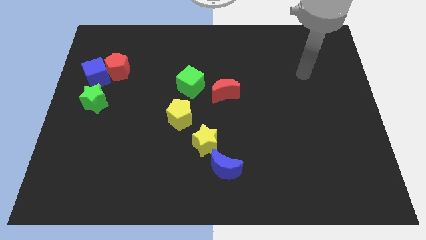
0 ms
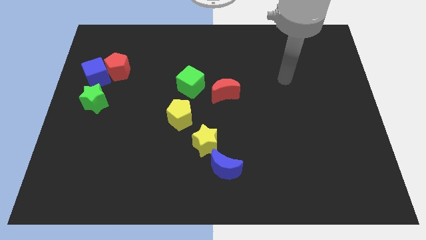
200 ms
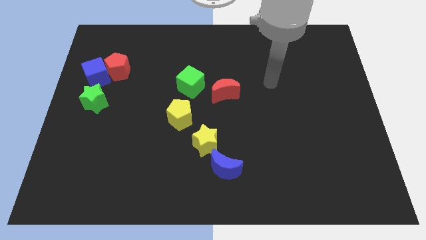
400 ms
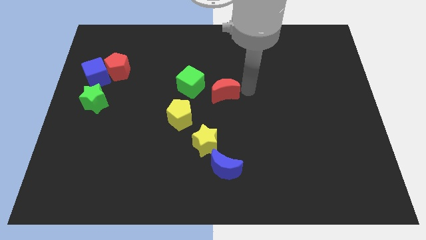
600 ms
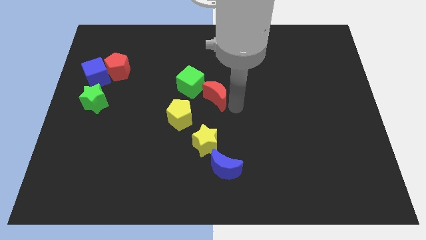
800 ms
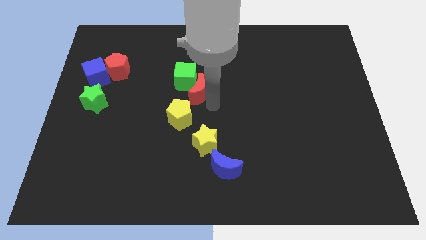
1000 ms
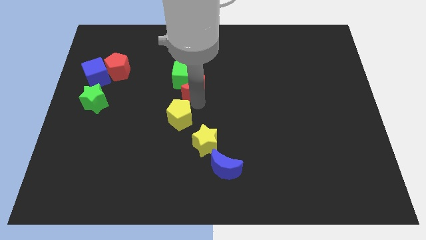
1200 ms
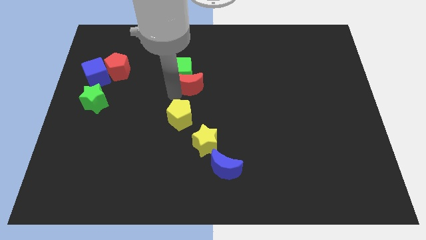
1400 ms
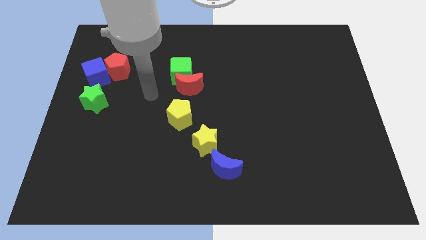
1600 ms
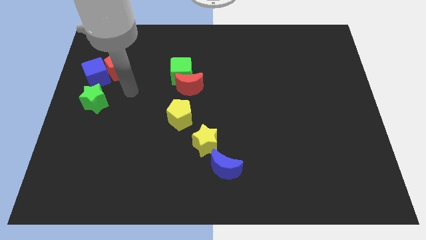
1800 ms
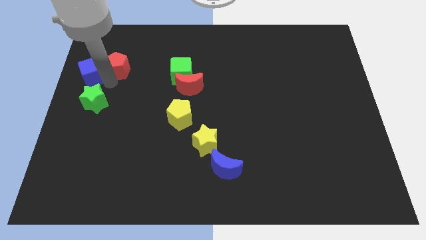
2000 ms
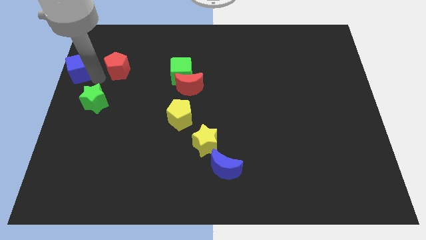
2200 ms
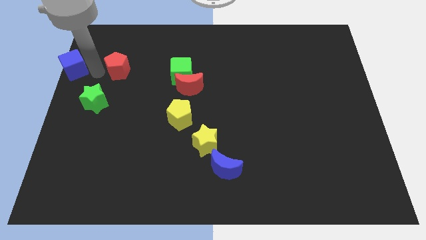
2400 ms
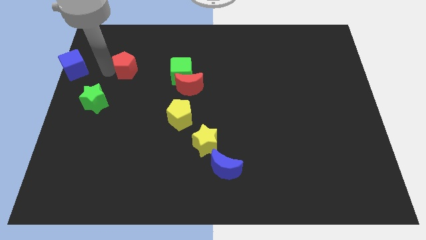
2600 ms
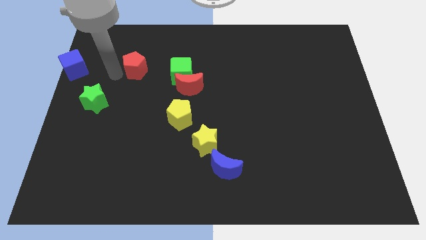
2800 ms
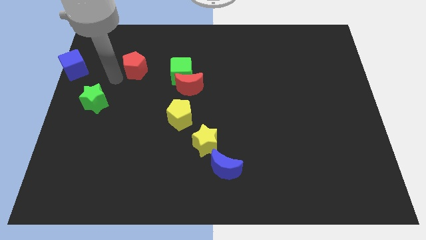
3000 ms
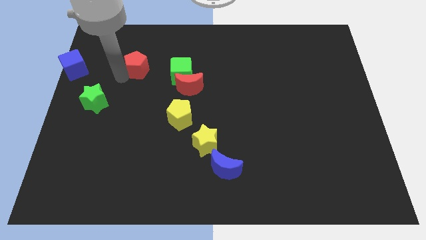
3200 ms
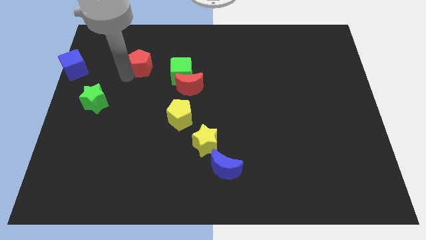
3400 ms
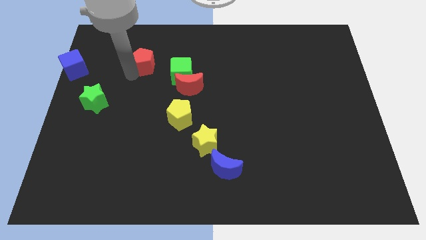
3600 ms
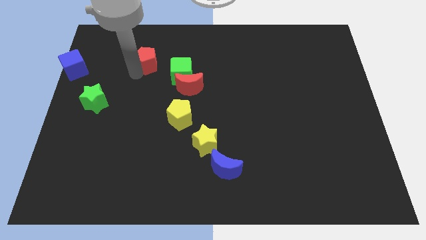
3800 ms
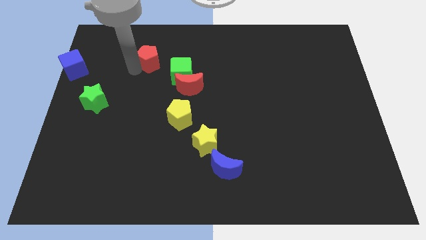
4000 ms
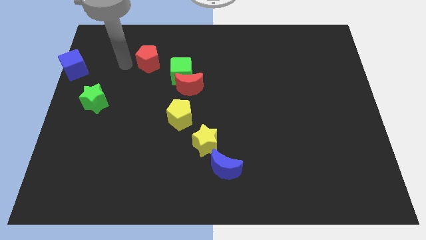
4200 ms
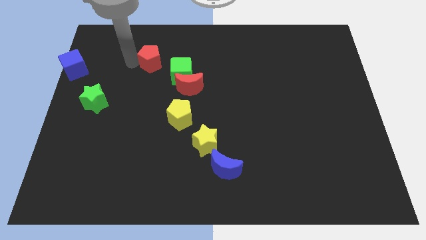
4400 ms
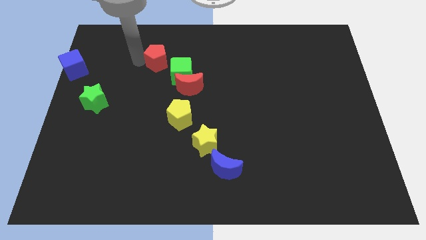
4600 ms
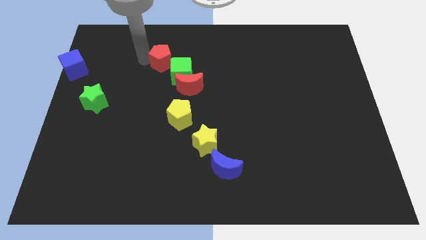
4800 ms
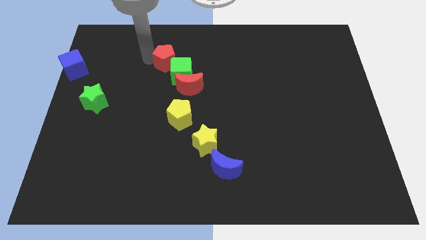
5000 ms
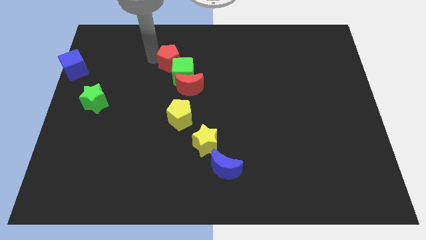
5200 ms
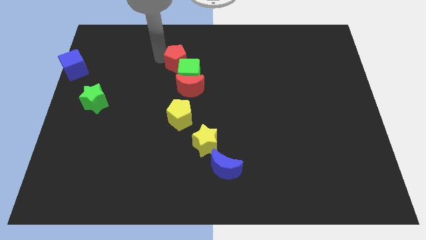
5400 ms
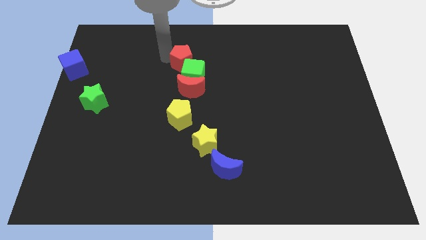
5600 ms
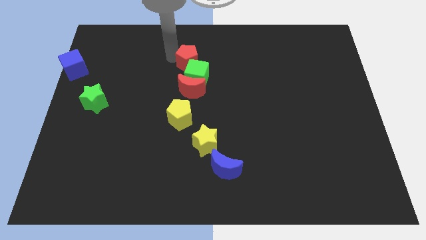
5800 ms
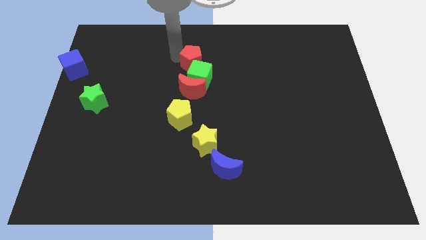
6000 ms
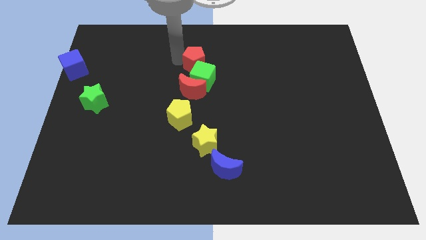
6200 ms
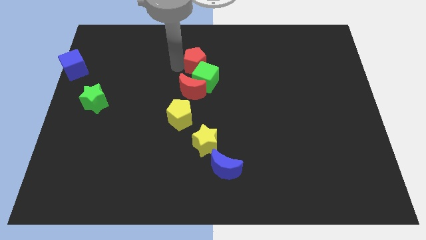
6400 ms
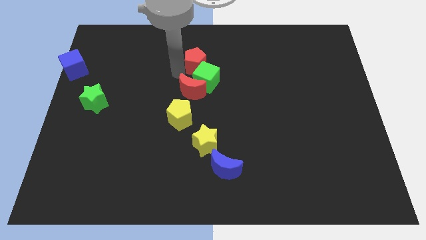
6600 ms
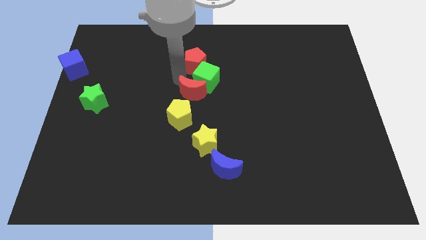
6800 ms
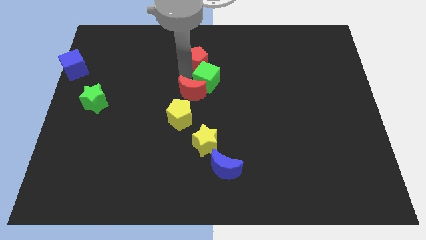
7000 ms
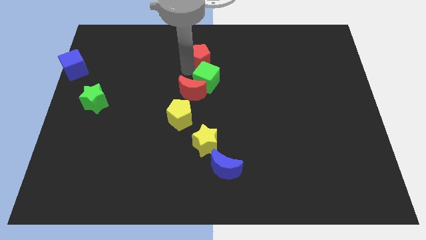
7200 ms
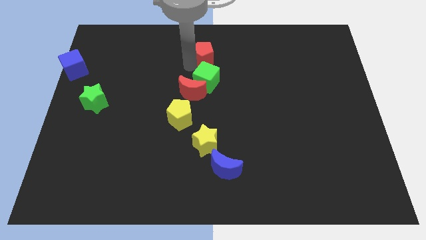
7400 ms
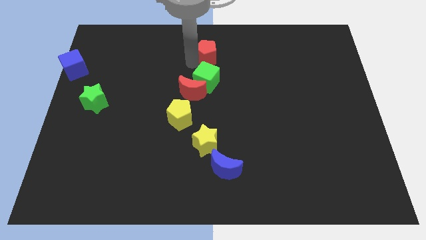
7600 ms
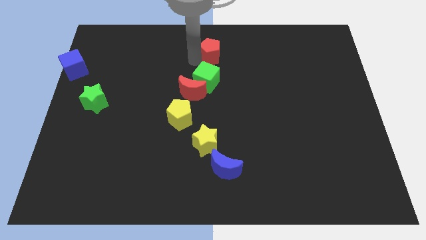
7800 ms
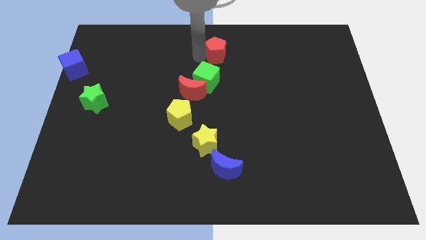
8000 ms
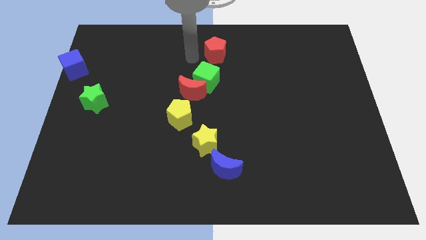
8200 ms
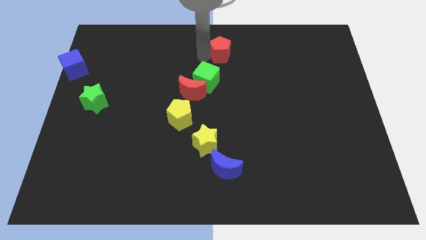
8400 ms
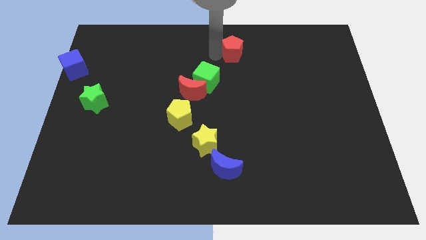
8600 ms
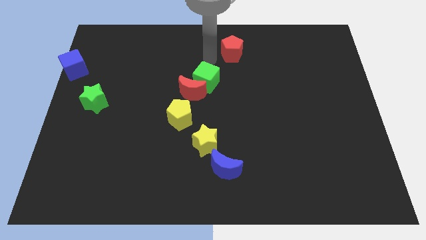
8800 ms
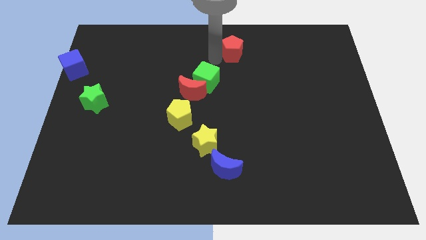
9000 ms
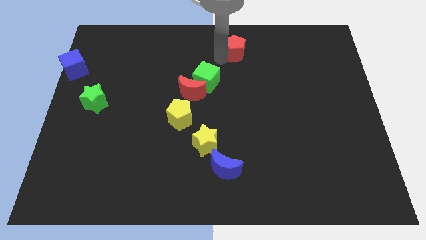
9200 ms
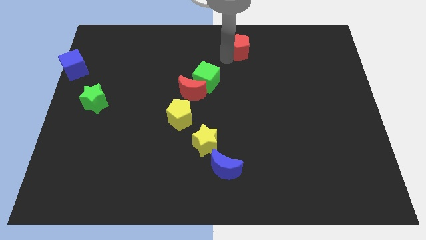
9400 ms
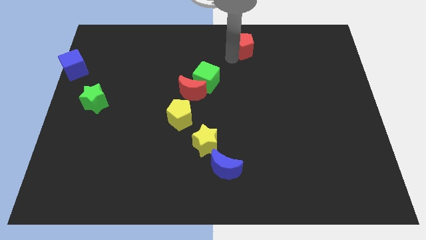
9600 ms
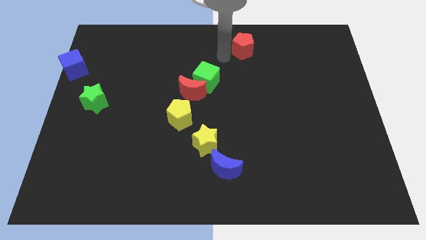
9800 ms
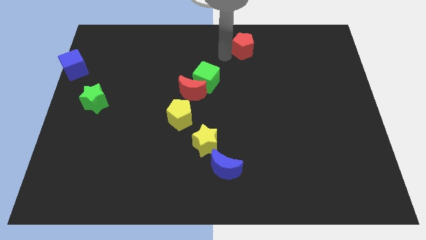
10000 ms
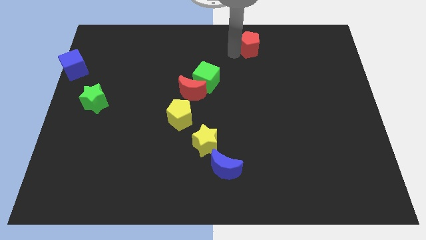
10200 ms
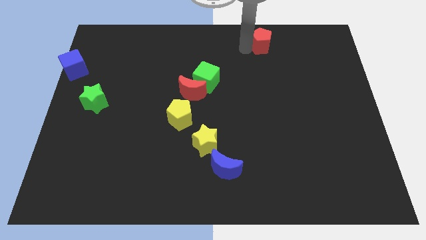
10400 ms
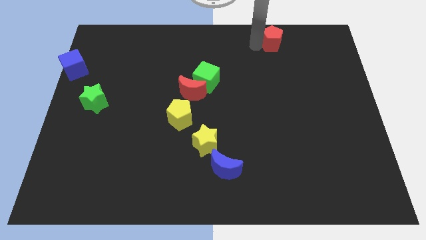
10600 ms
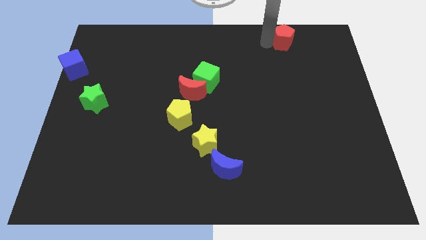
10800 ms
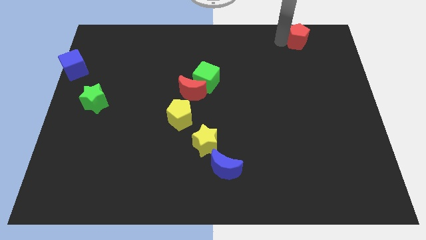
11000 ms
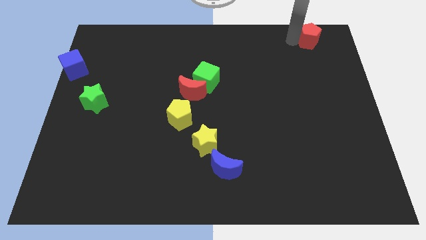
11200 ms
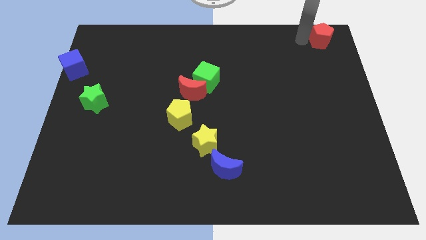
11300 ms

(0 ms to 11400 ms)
slide the red pentagon to the top right corner

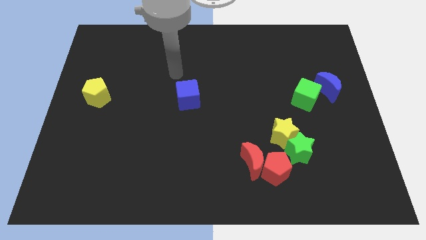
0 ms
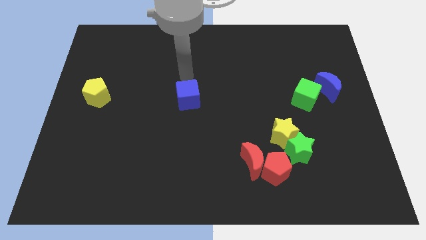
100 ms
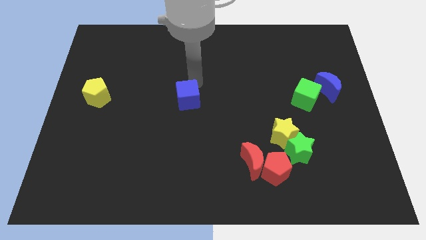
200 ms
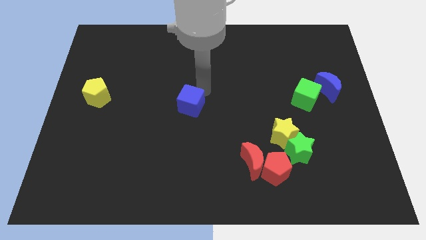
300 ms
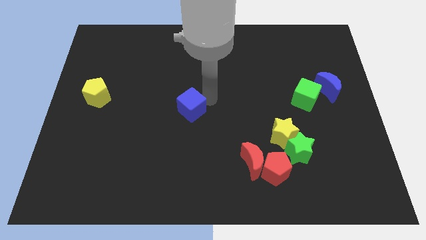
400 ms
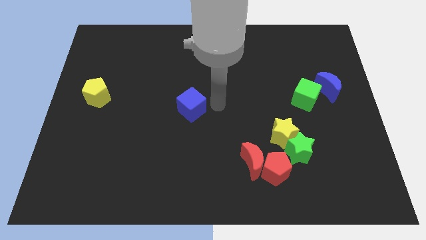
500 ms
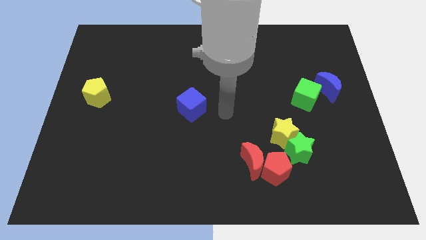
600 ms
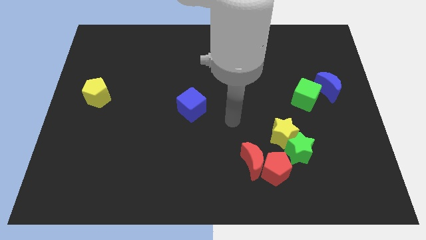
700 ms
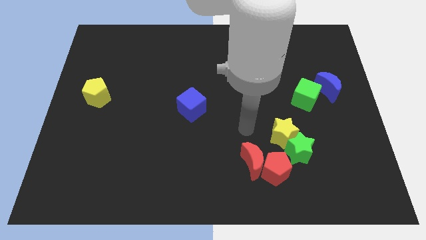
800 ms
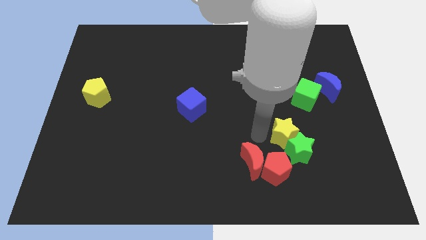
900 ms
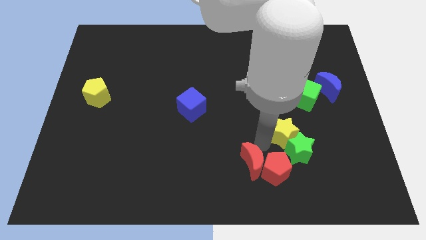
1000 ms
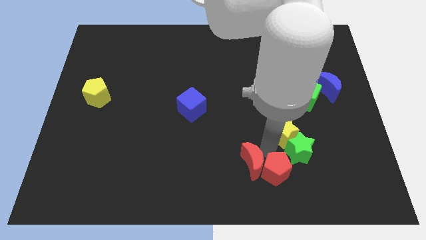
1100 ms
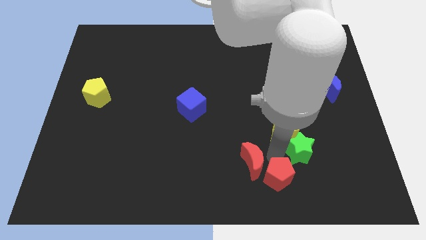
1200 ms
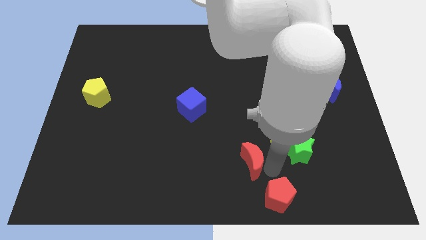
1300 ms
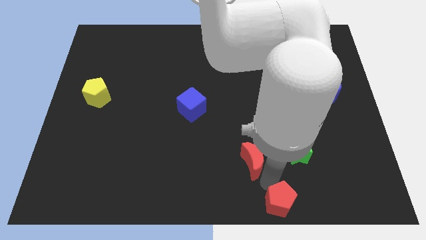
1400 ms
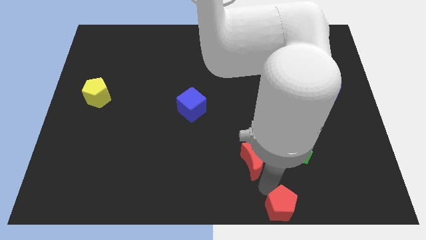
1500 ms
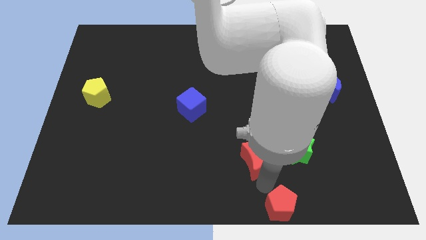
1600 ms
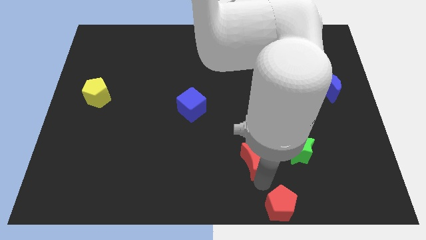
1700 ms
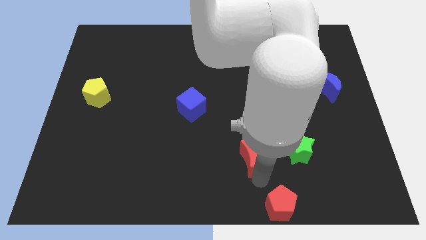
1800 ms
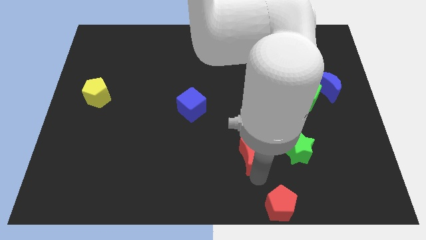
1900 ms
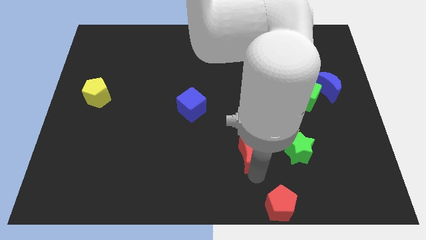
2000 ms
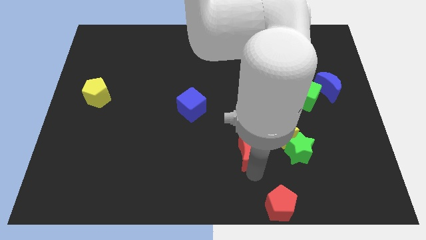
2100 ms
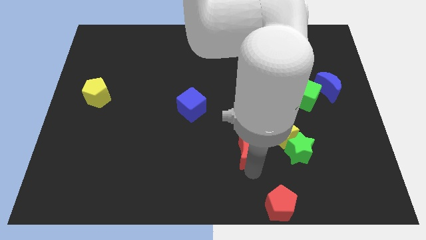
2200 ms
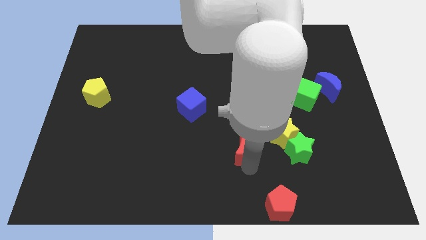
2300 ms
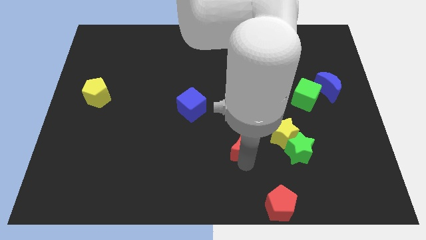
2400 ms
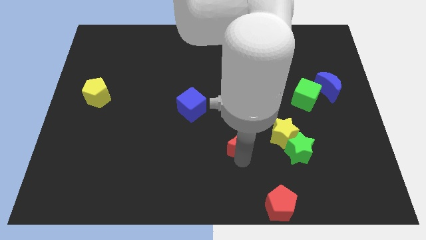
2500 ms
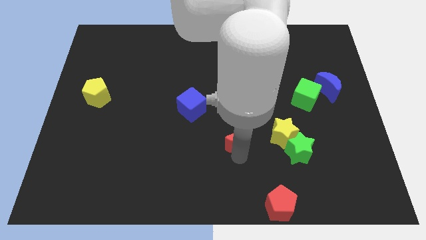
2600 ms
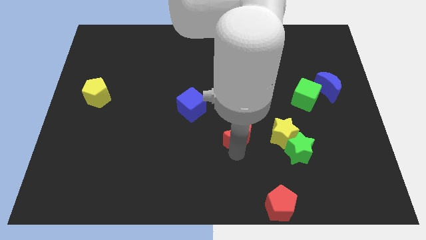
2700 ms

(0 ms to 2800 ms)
push the red moon to the middle of the board
